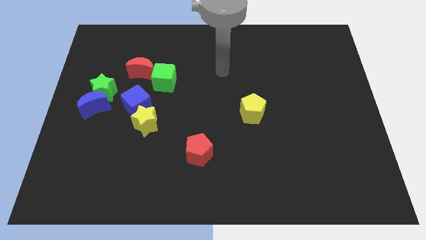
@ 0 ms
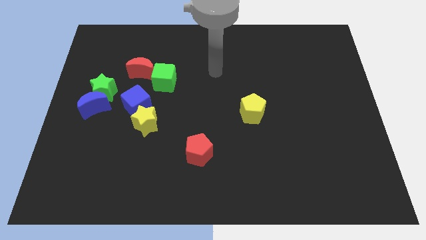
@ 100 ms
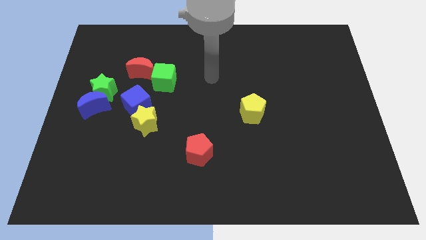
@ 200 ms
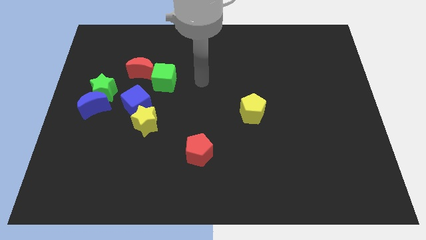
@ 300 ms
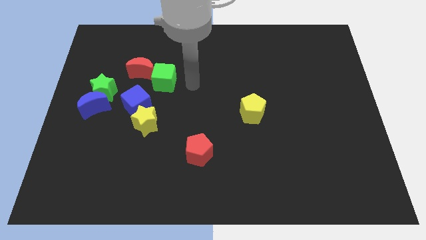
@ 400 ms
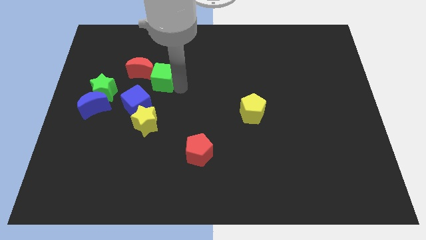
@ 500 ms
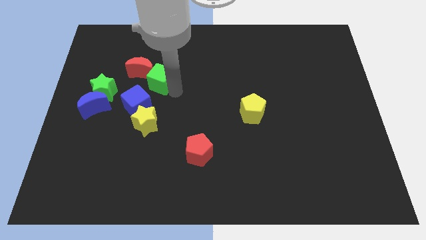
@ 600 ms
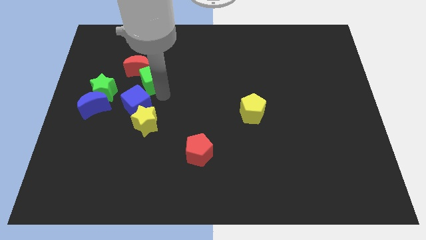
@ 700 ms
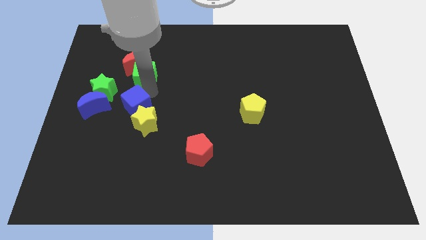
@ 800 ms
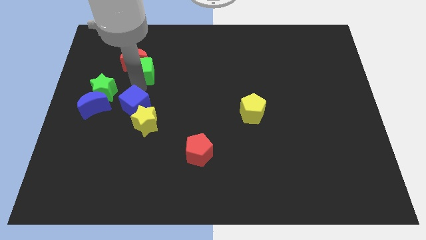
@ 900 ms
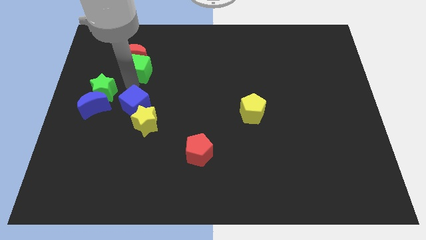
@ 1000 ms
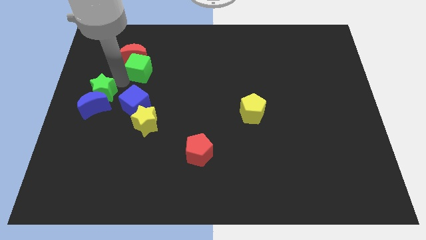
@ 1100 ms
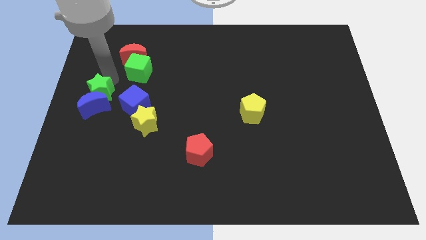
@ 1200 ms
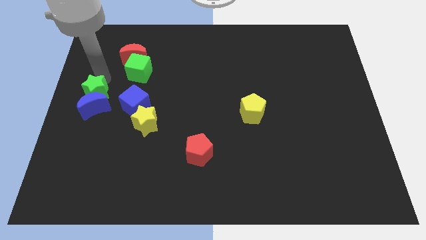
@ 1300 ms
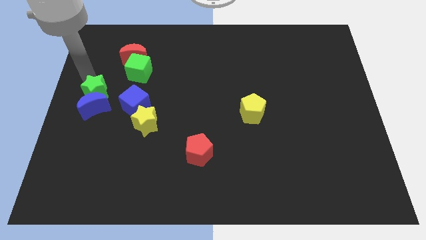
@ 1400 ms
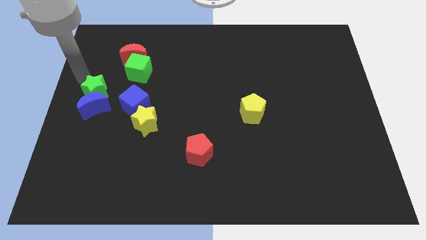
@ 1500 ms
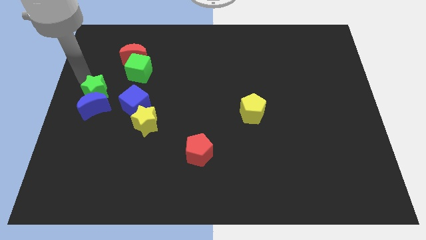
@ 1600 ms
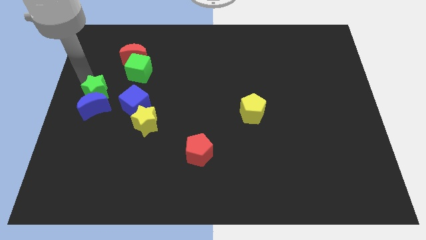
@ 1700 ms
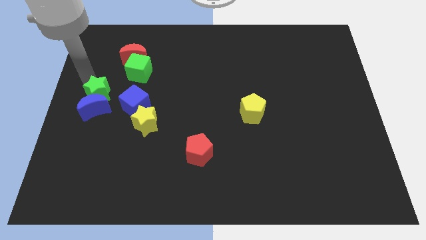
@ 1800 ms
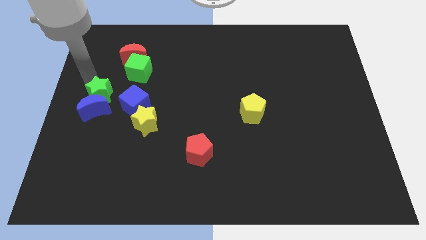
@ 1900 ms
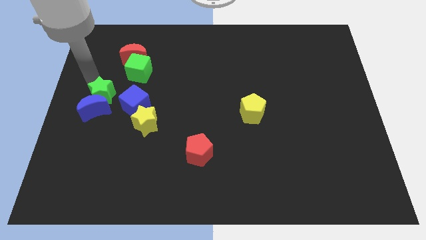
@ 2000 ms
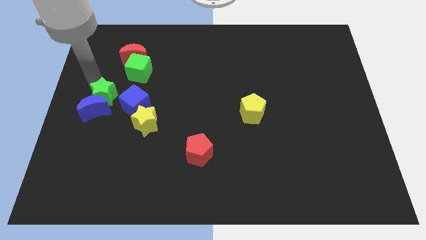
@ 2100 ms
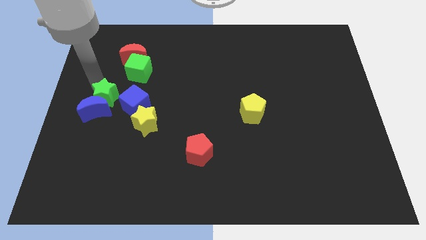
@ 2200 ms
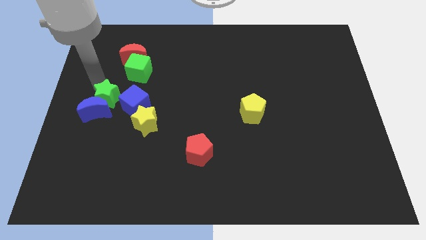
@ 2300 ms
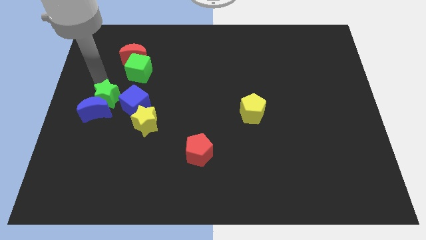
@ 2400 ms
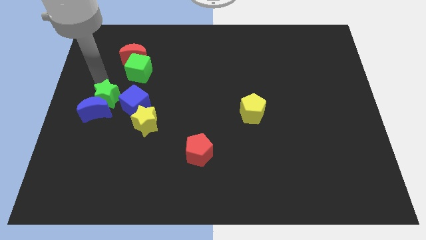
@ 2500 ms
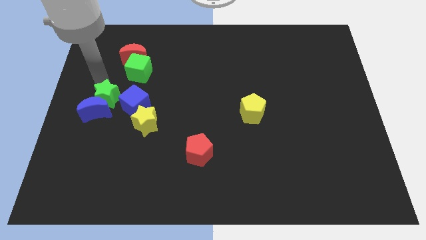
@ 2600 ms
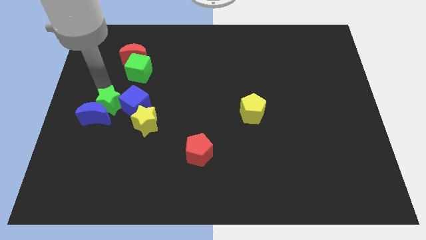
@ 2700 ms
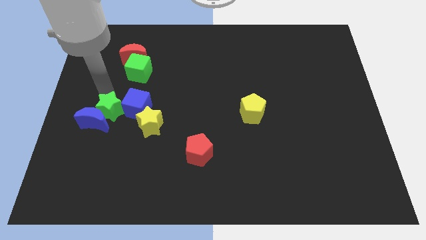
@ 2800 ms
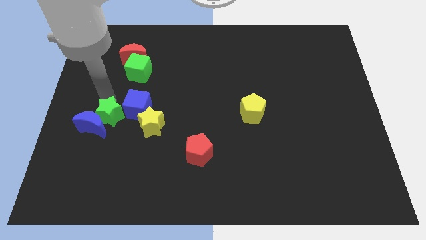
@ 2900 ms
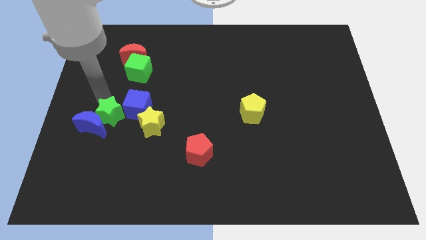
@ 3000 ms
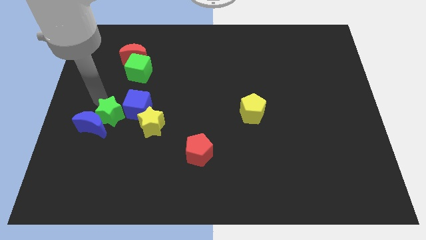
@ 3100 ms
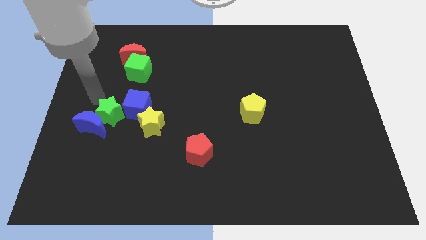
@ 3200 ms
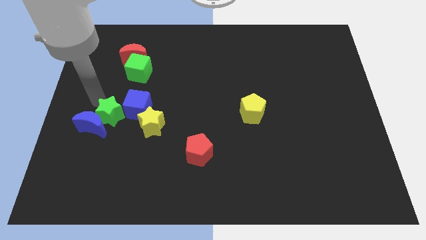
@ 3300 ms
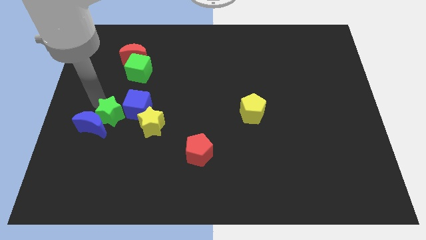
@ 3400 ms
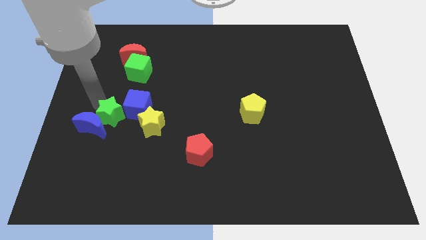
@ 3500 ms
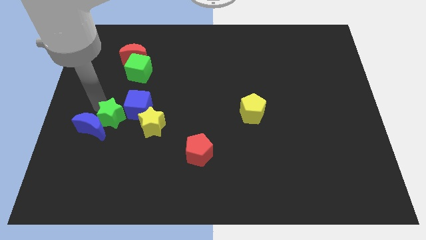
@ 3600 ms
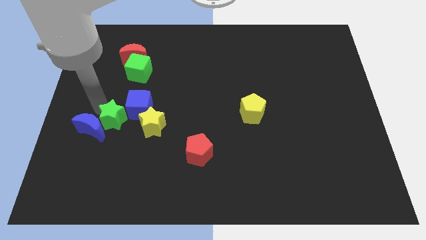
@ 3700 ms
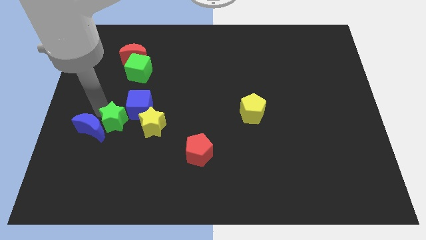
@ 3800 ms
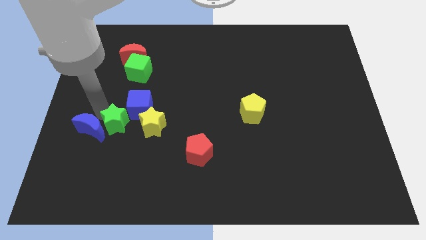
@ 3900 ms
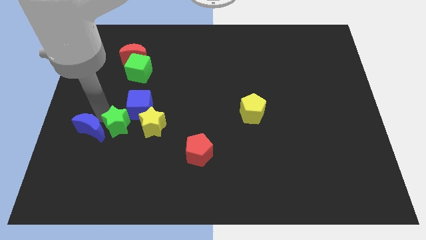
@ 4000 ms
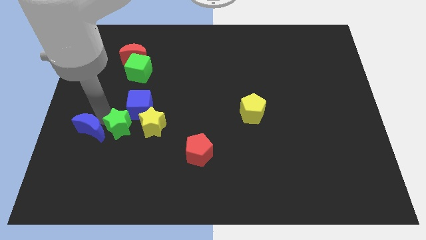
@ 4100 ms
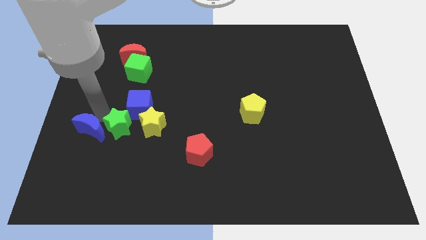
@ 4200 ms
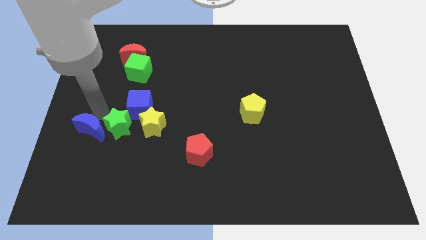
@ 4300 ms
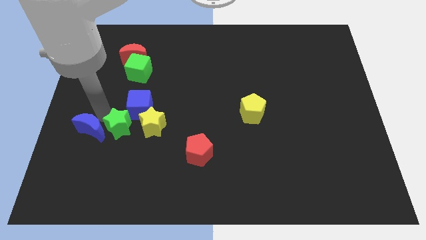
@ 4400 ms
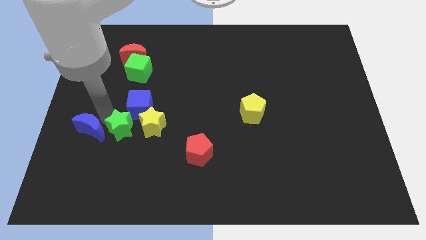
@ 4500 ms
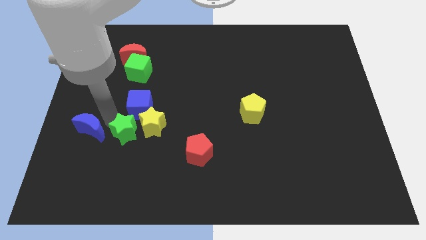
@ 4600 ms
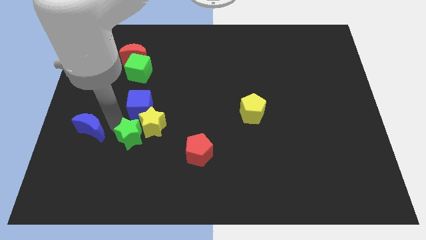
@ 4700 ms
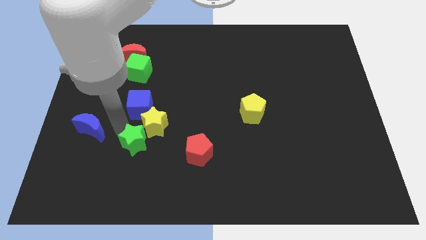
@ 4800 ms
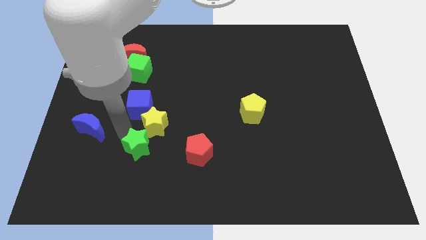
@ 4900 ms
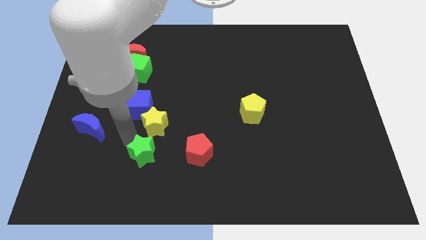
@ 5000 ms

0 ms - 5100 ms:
move the green star down and then right

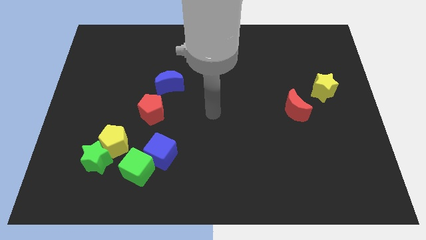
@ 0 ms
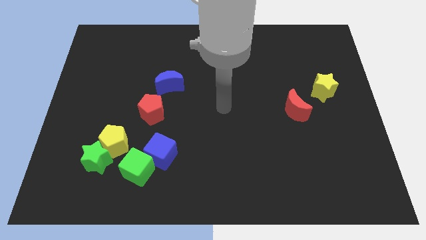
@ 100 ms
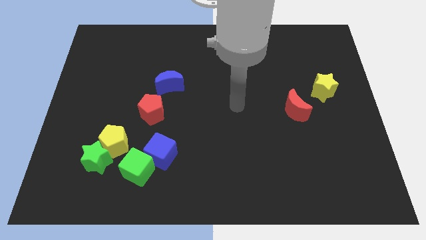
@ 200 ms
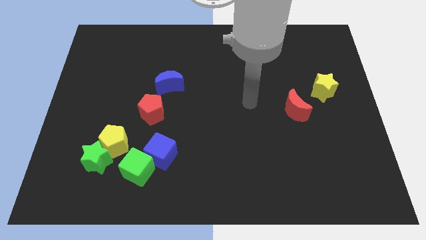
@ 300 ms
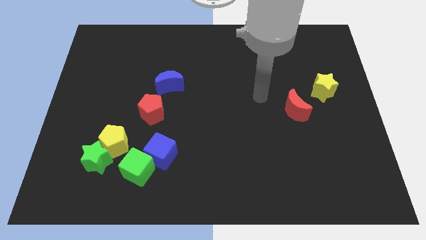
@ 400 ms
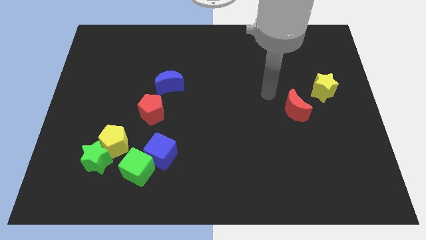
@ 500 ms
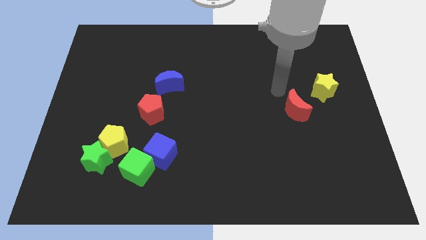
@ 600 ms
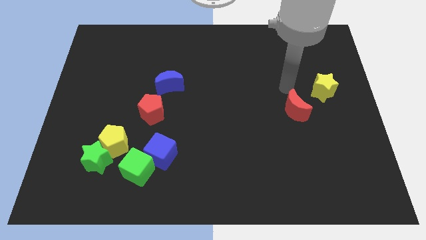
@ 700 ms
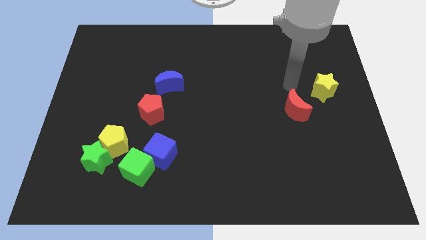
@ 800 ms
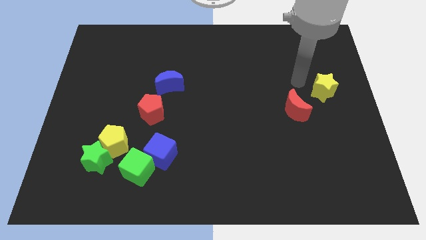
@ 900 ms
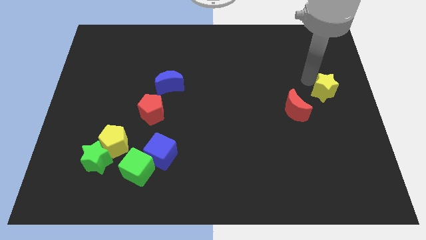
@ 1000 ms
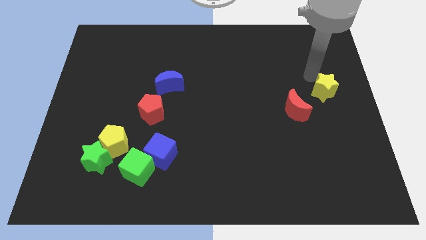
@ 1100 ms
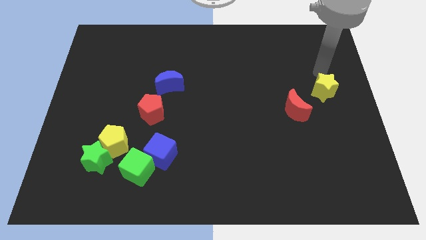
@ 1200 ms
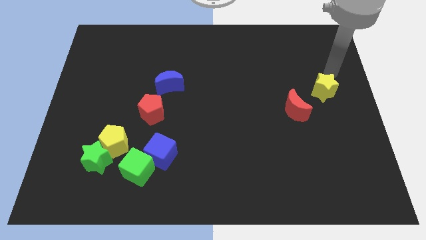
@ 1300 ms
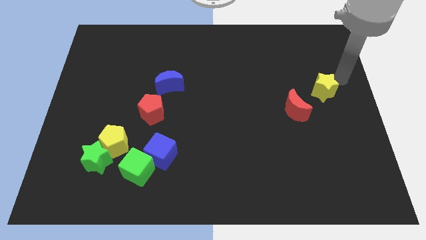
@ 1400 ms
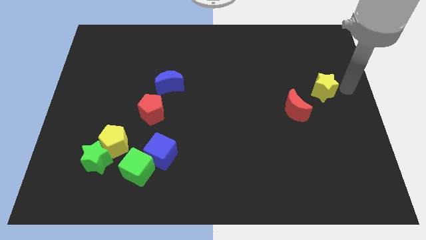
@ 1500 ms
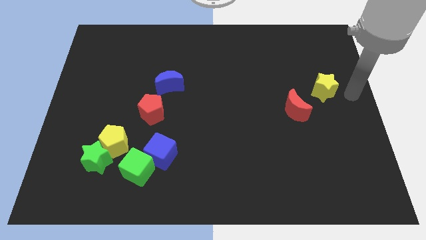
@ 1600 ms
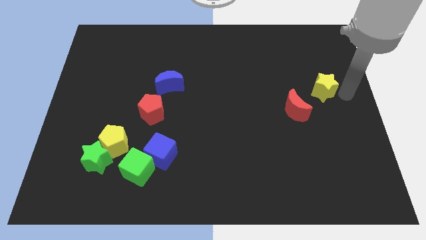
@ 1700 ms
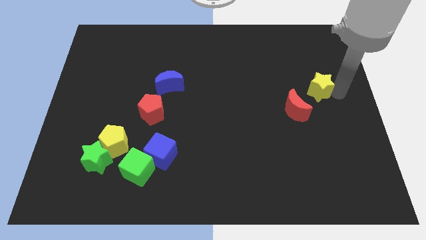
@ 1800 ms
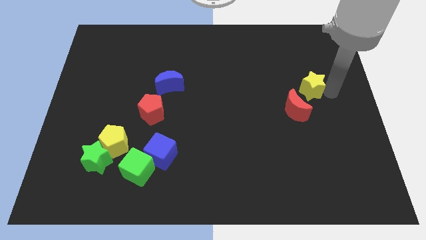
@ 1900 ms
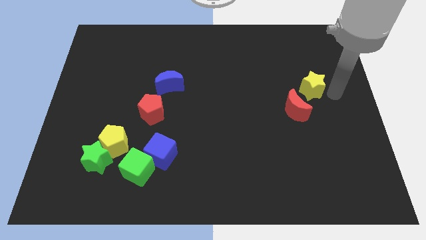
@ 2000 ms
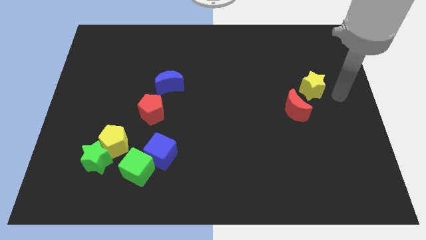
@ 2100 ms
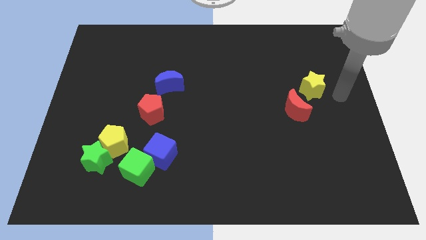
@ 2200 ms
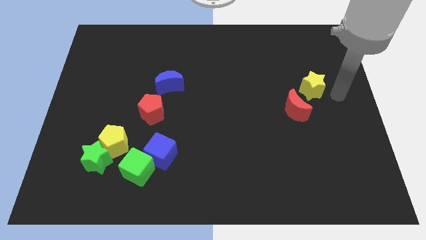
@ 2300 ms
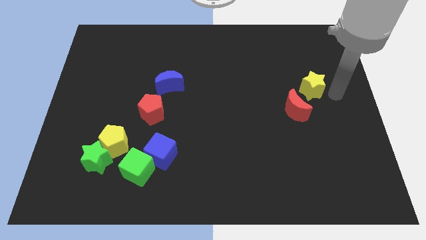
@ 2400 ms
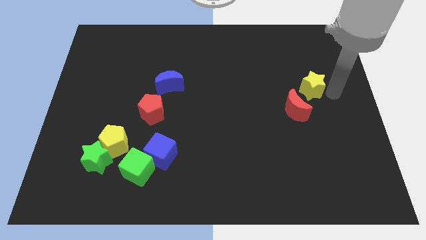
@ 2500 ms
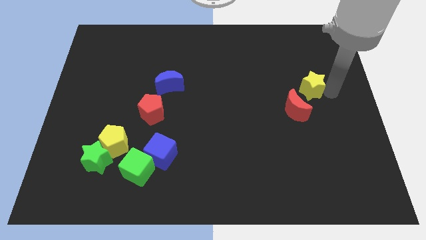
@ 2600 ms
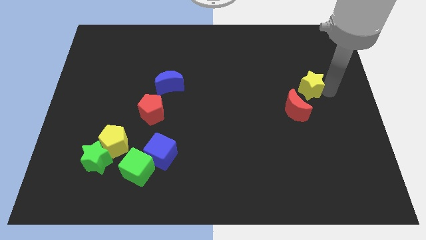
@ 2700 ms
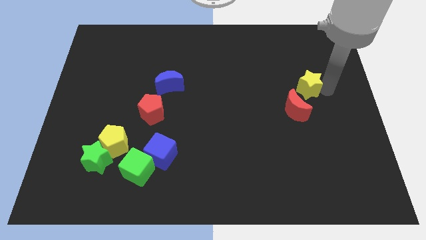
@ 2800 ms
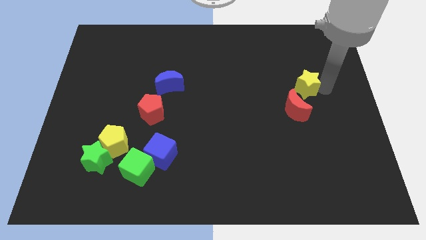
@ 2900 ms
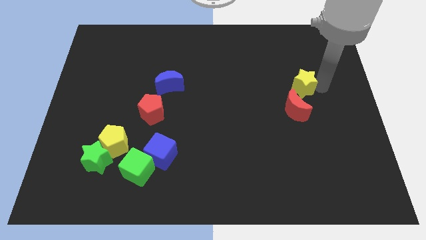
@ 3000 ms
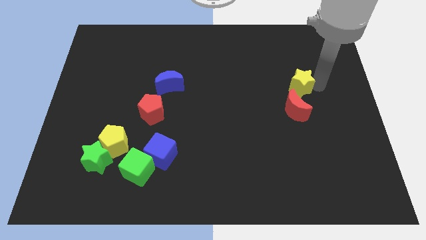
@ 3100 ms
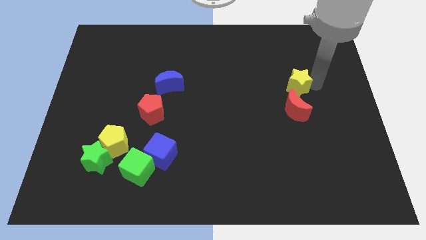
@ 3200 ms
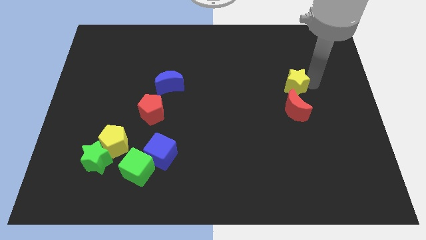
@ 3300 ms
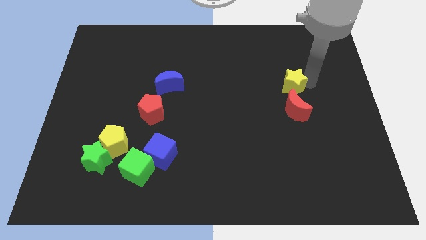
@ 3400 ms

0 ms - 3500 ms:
slightly push the yellow star to the left
